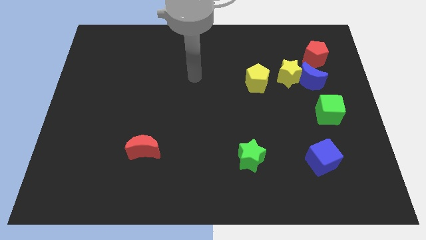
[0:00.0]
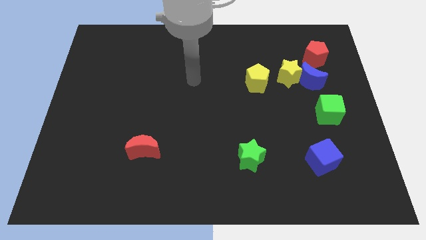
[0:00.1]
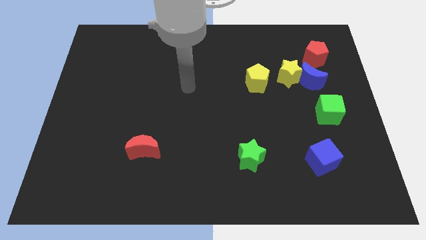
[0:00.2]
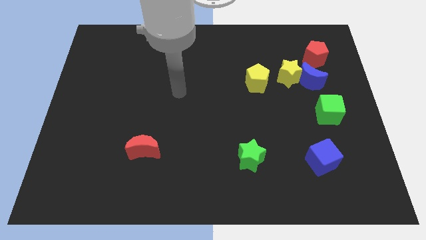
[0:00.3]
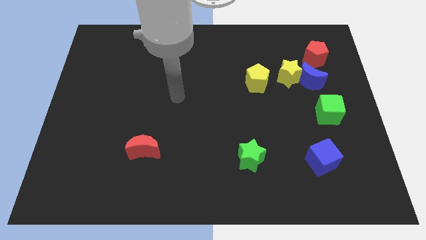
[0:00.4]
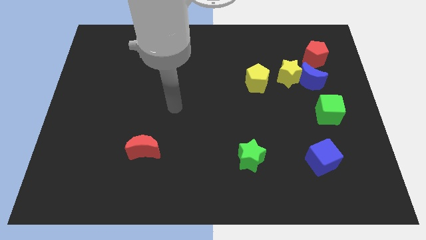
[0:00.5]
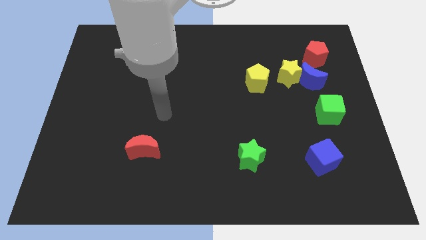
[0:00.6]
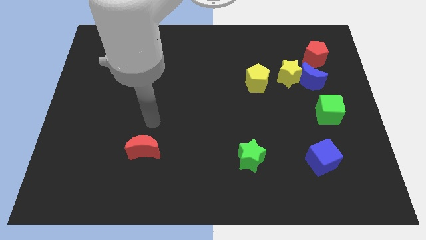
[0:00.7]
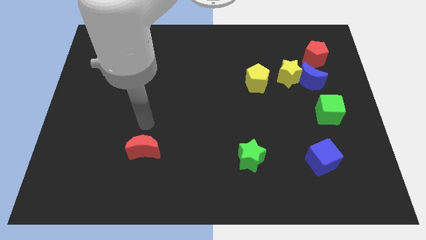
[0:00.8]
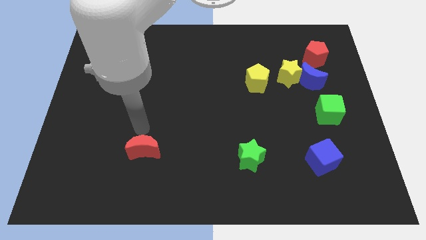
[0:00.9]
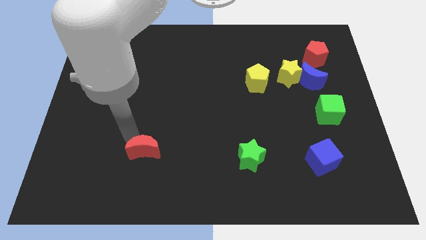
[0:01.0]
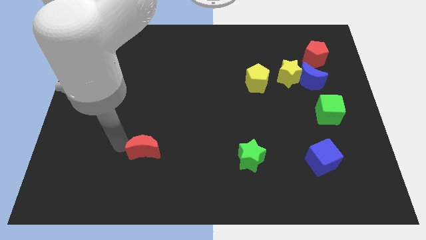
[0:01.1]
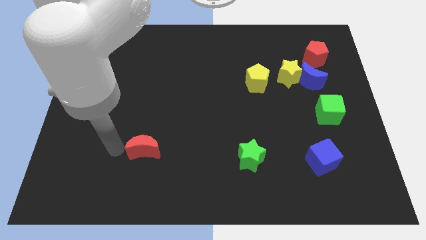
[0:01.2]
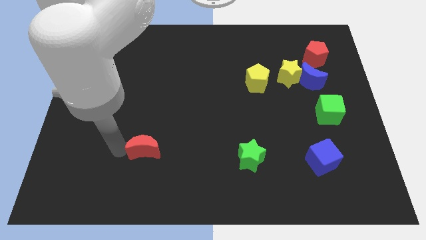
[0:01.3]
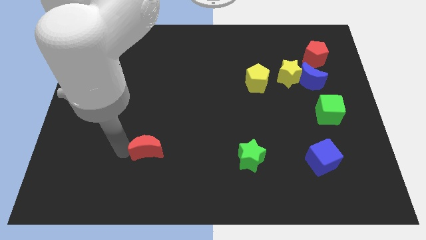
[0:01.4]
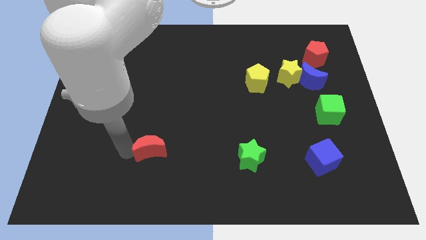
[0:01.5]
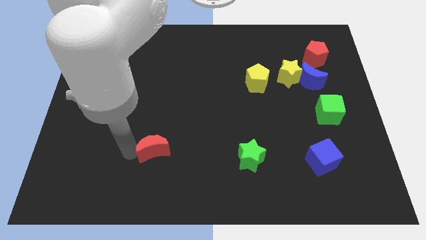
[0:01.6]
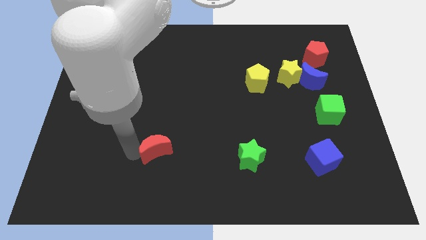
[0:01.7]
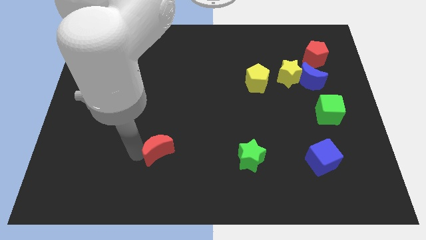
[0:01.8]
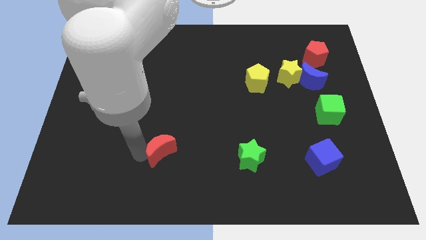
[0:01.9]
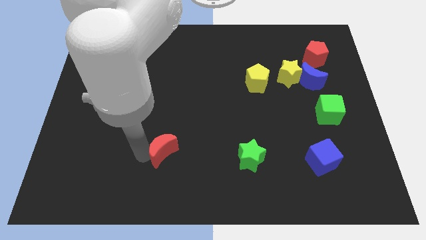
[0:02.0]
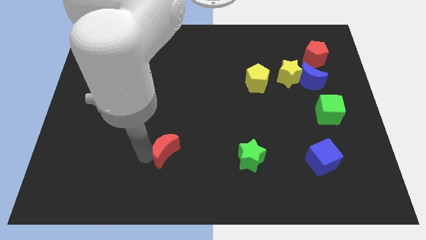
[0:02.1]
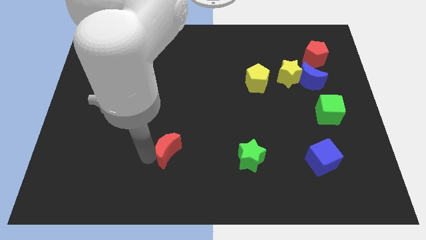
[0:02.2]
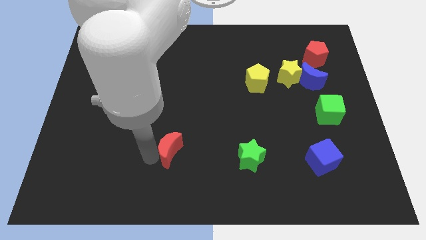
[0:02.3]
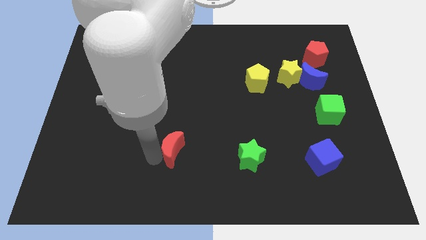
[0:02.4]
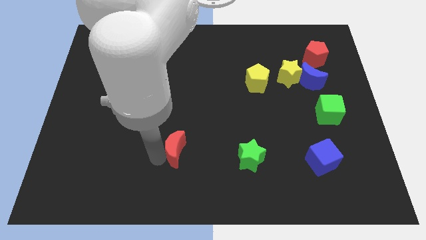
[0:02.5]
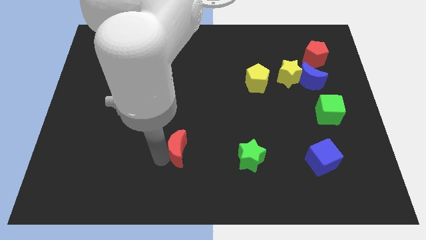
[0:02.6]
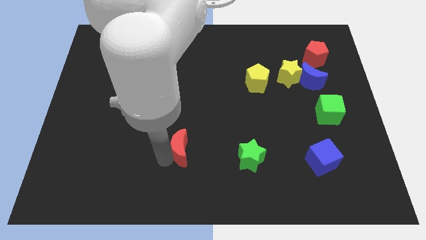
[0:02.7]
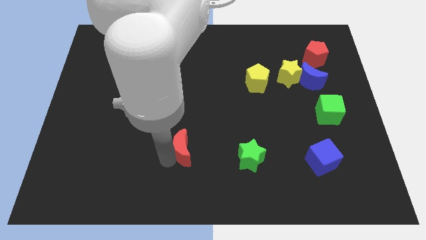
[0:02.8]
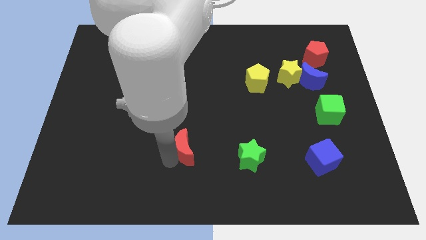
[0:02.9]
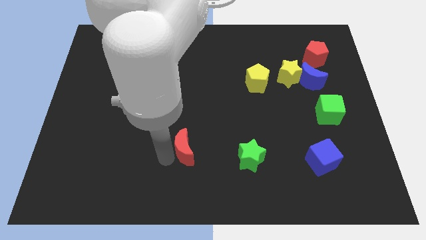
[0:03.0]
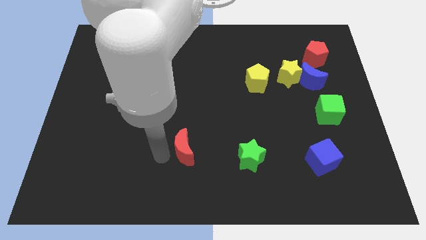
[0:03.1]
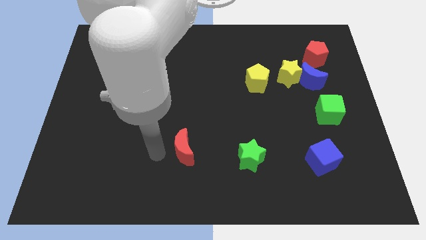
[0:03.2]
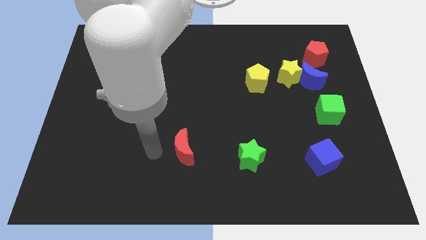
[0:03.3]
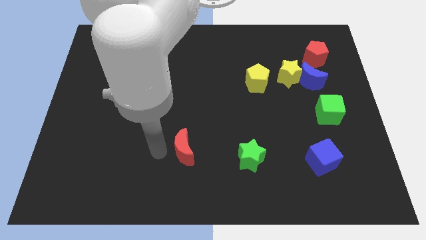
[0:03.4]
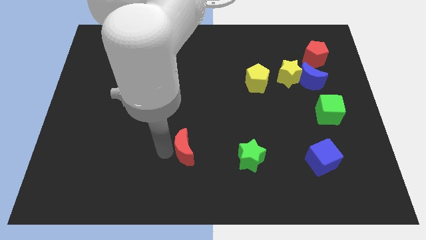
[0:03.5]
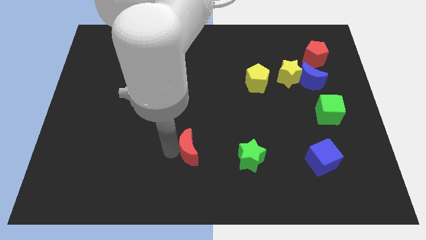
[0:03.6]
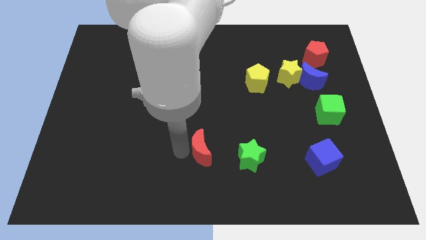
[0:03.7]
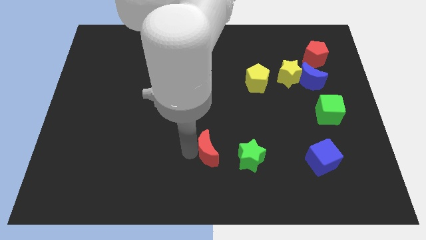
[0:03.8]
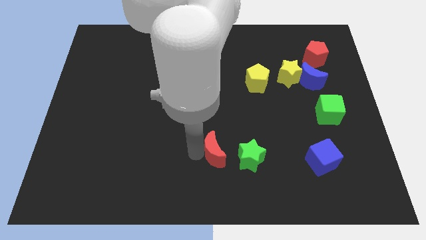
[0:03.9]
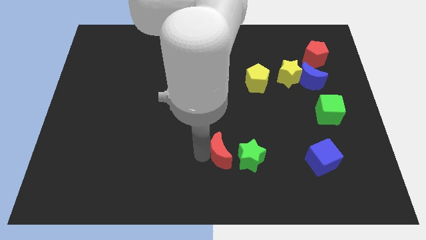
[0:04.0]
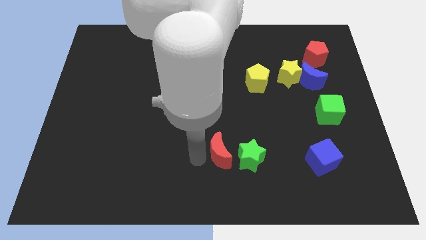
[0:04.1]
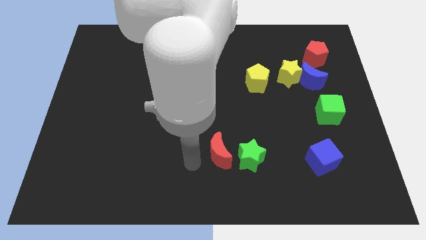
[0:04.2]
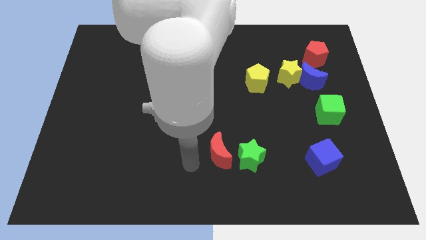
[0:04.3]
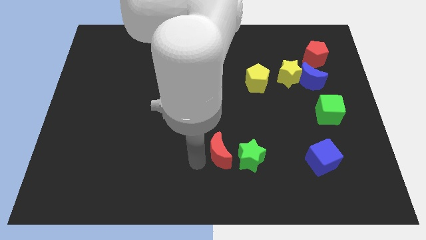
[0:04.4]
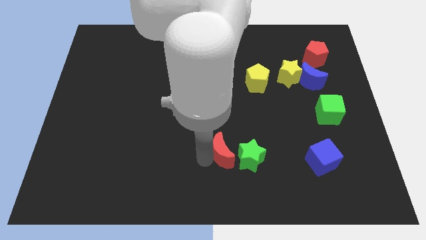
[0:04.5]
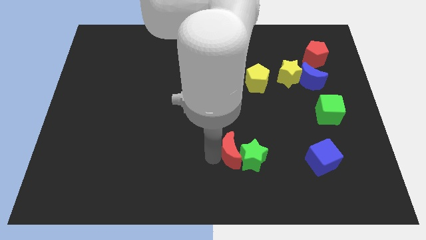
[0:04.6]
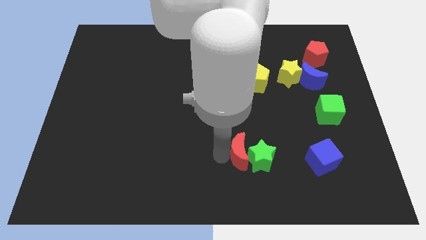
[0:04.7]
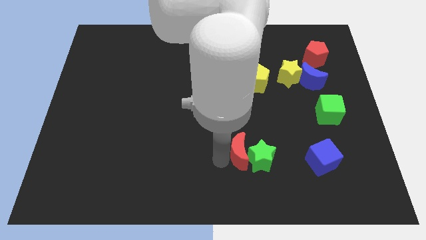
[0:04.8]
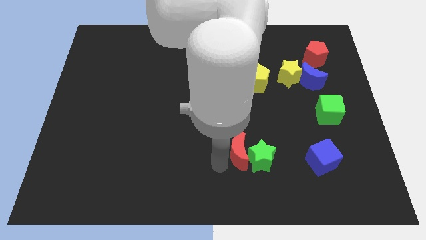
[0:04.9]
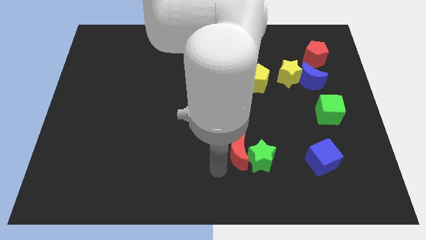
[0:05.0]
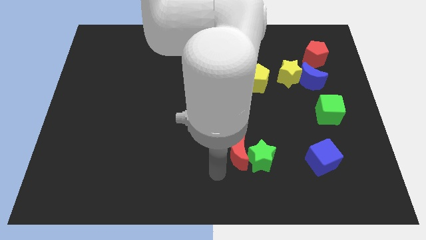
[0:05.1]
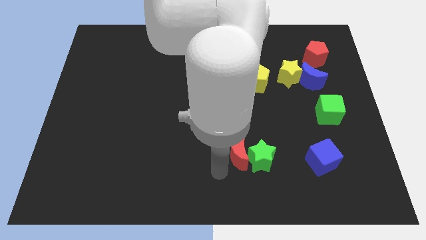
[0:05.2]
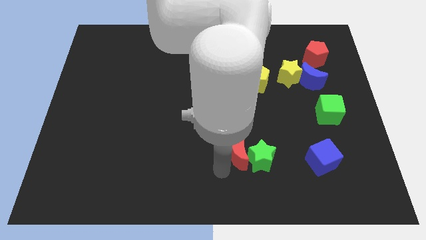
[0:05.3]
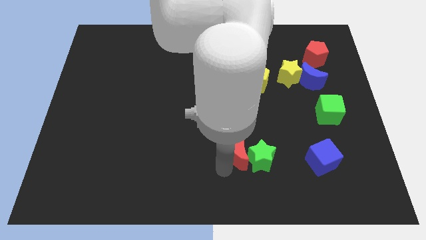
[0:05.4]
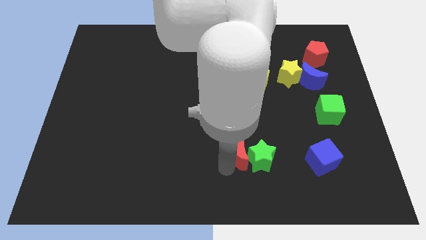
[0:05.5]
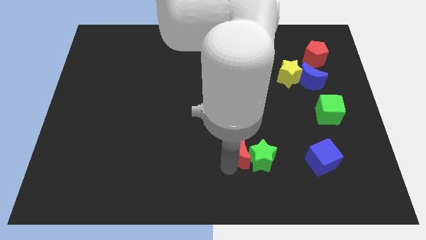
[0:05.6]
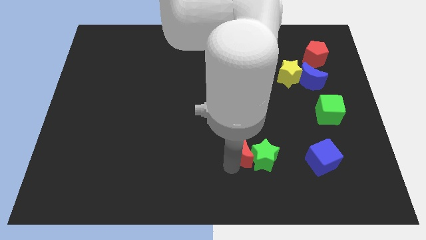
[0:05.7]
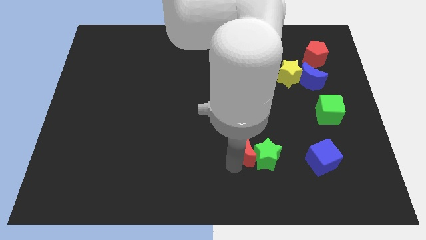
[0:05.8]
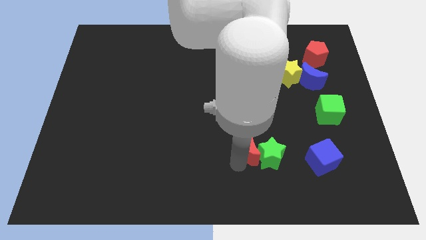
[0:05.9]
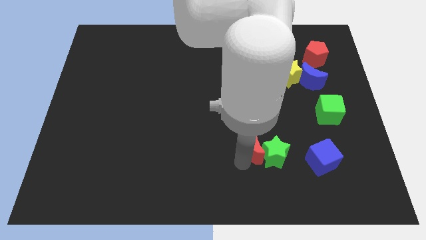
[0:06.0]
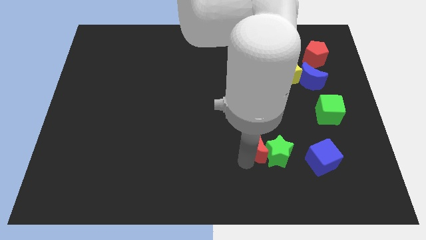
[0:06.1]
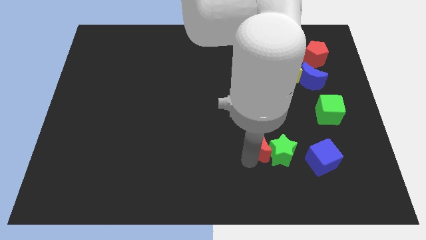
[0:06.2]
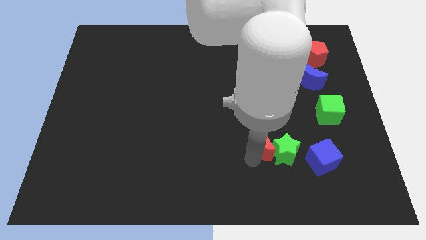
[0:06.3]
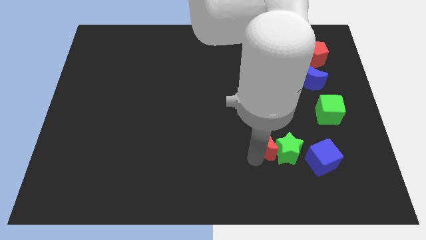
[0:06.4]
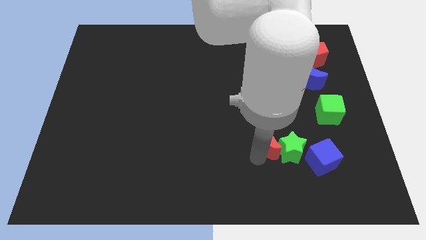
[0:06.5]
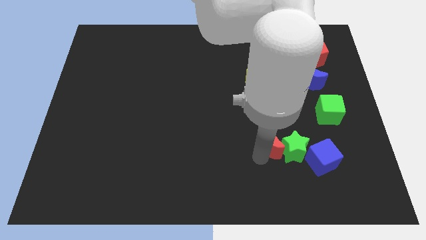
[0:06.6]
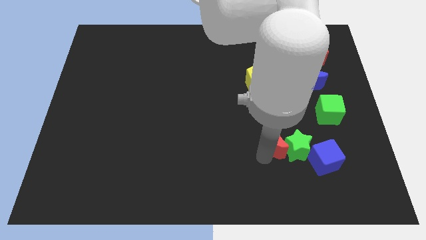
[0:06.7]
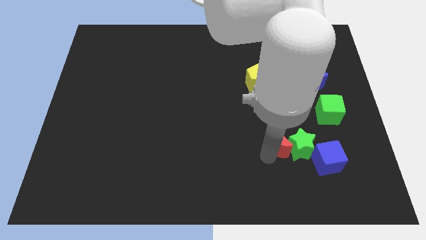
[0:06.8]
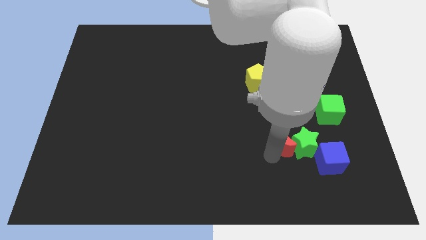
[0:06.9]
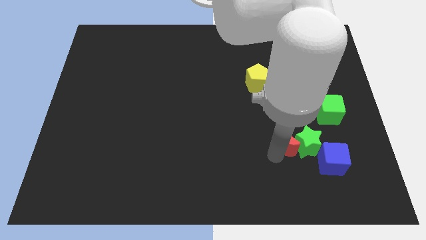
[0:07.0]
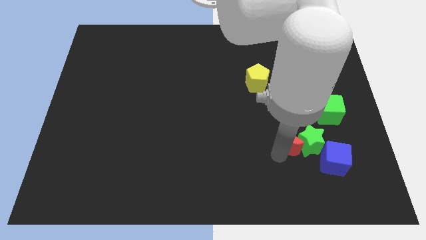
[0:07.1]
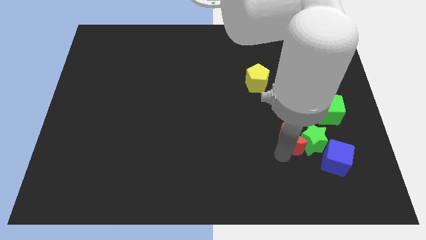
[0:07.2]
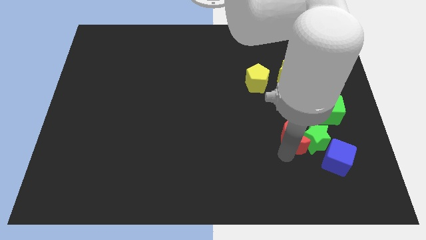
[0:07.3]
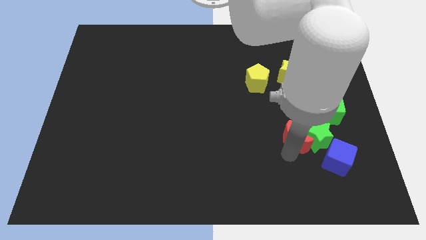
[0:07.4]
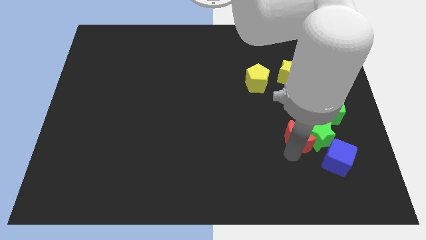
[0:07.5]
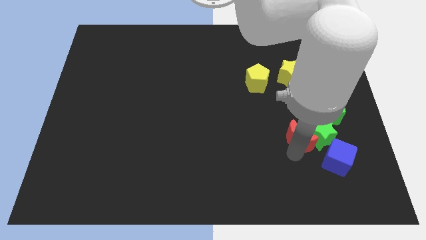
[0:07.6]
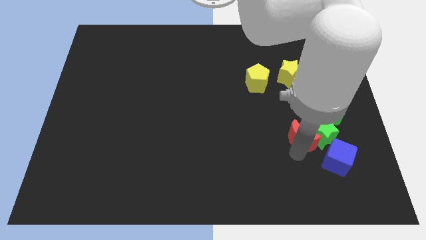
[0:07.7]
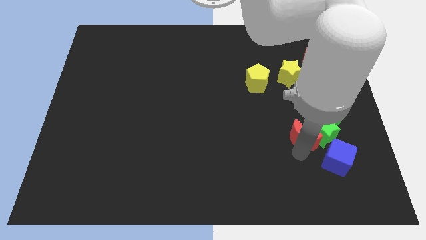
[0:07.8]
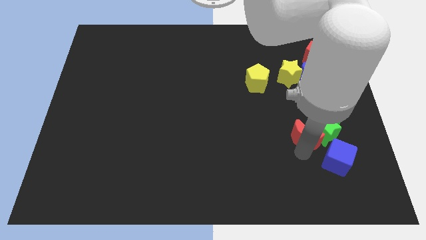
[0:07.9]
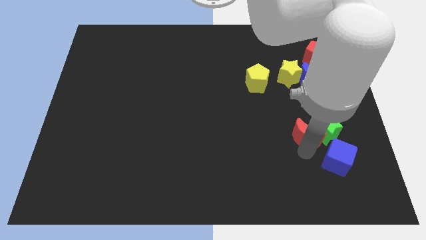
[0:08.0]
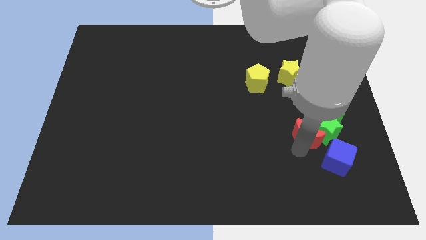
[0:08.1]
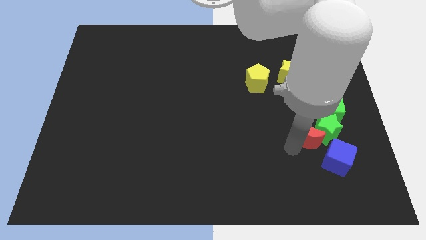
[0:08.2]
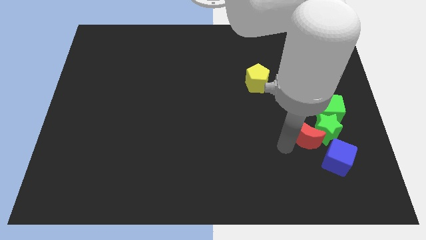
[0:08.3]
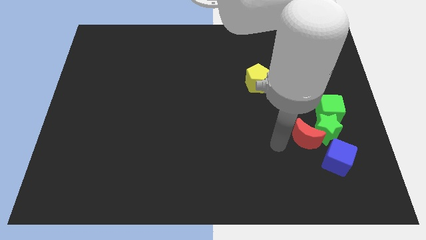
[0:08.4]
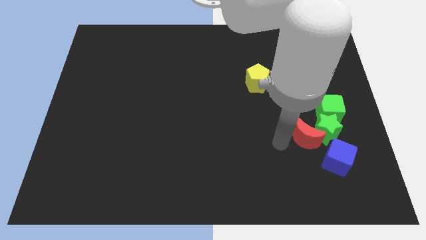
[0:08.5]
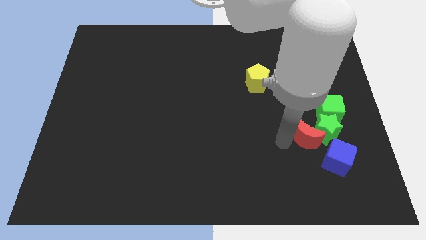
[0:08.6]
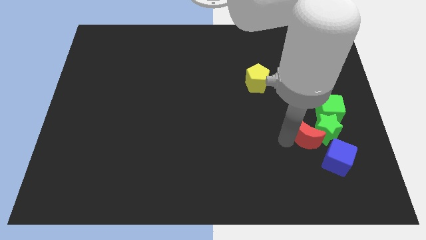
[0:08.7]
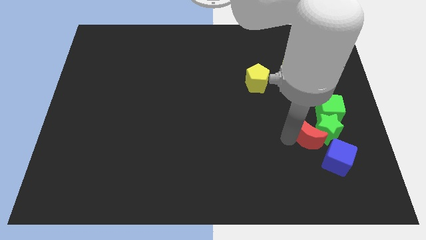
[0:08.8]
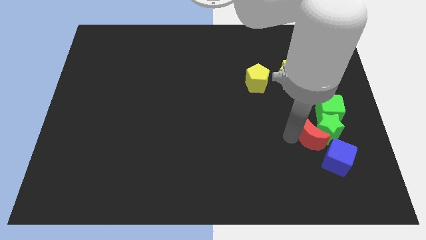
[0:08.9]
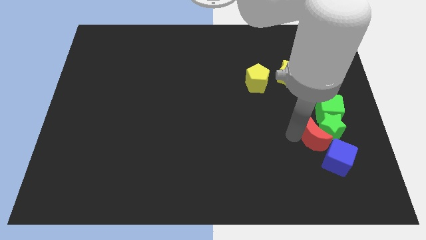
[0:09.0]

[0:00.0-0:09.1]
slide the red moon to the bottom of the green cube
